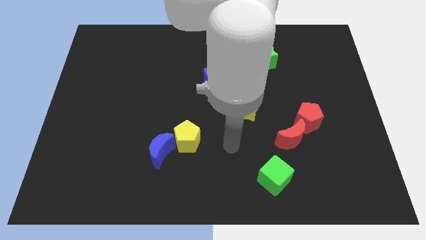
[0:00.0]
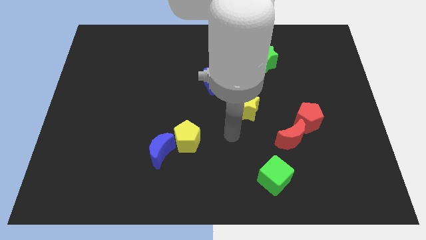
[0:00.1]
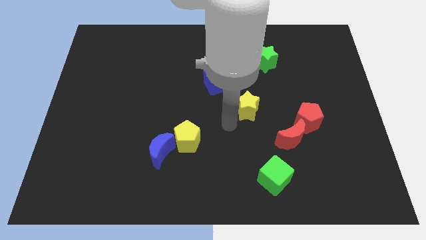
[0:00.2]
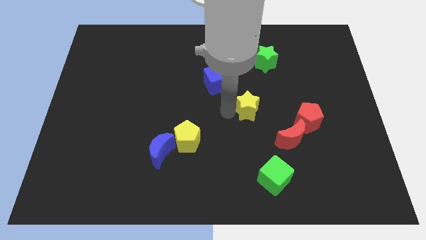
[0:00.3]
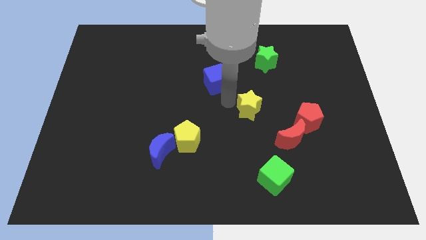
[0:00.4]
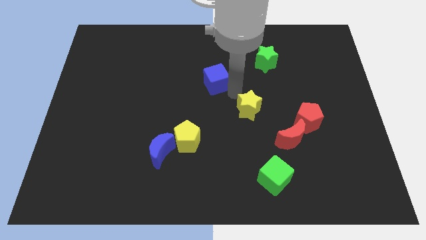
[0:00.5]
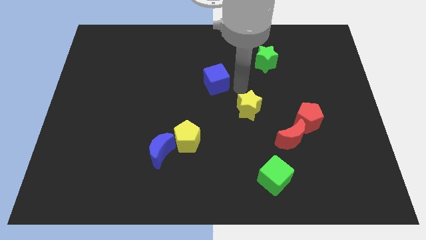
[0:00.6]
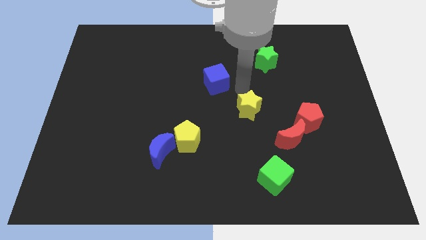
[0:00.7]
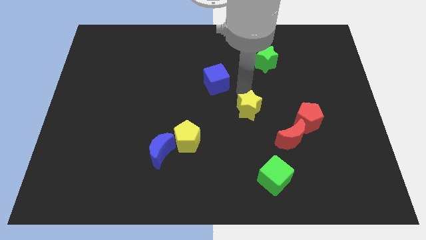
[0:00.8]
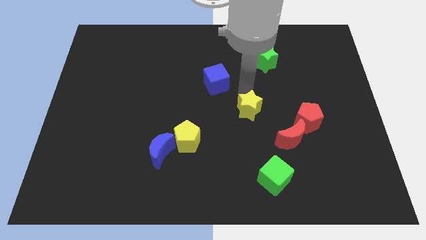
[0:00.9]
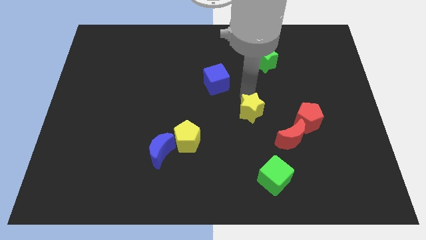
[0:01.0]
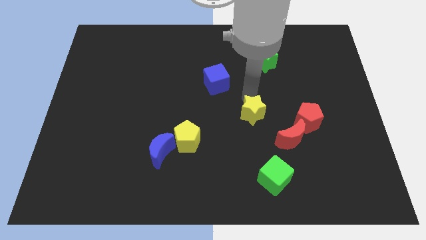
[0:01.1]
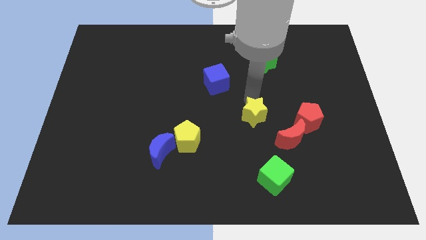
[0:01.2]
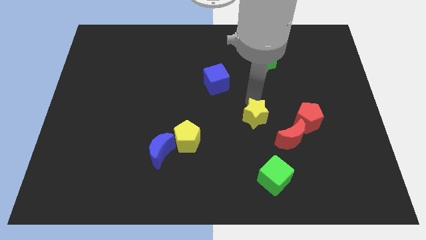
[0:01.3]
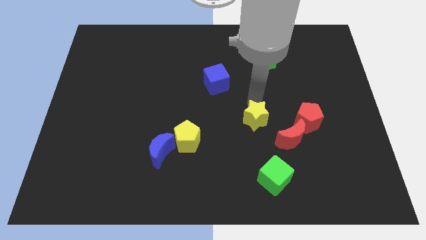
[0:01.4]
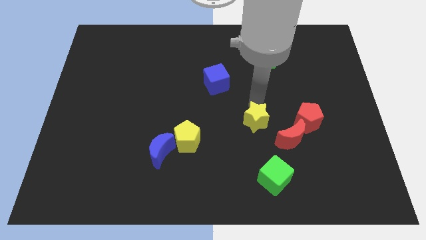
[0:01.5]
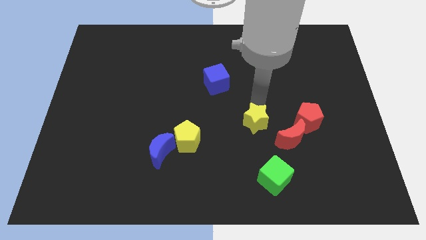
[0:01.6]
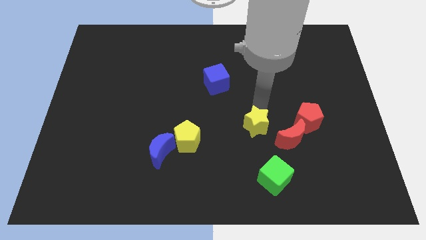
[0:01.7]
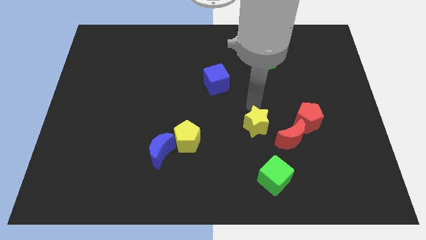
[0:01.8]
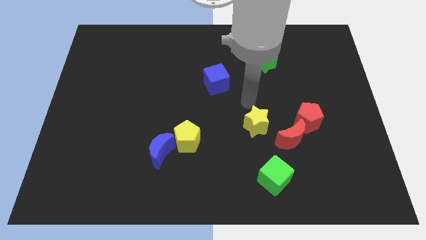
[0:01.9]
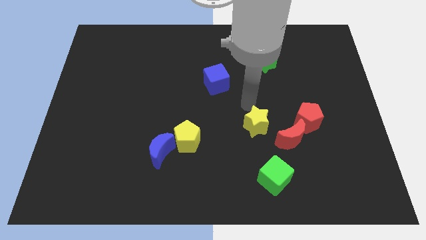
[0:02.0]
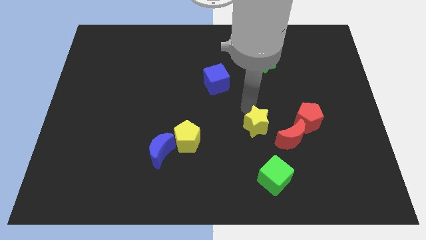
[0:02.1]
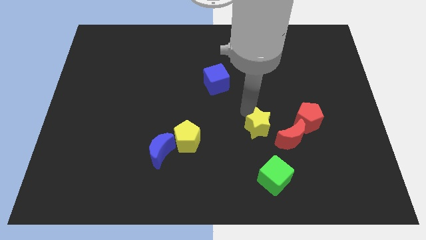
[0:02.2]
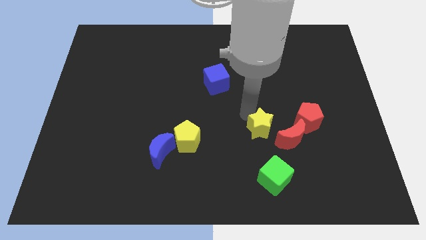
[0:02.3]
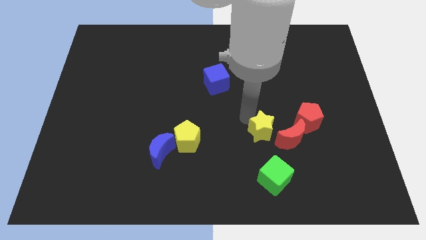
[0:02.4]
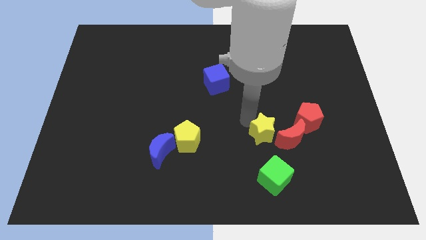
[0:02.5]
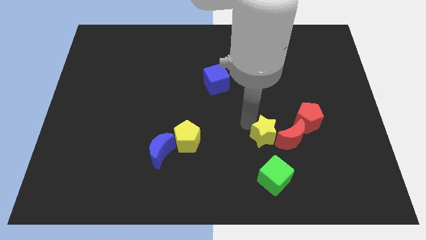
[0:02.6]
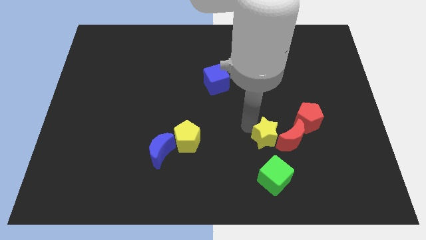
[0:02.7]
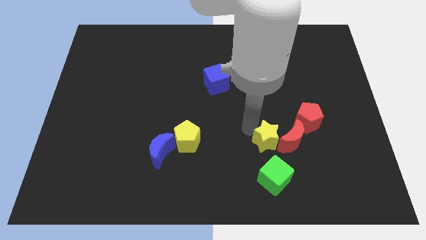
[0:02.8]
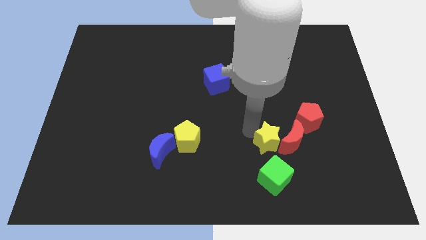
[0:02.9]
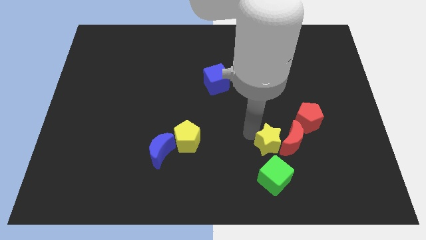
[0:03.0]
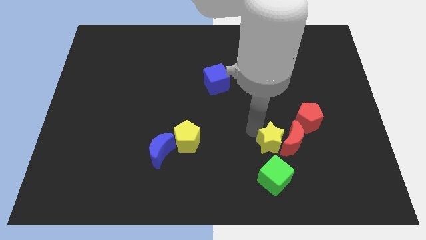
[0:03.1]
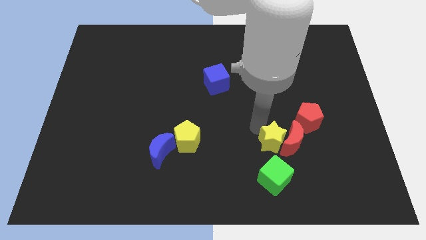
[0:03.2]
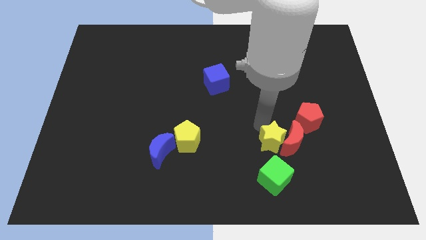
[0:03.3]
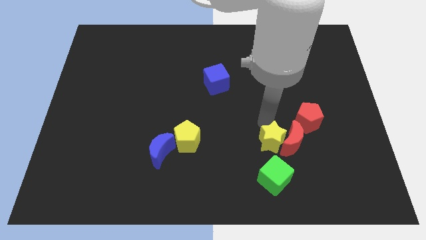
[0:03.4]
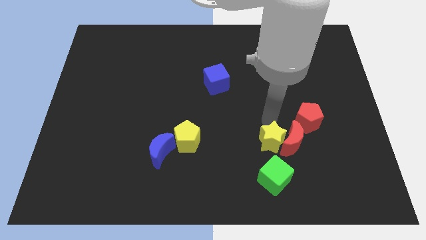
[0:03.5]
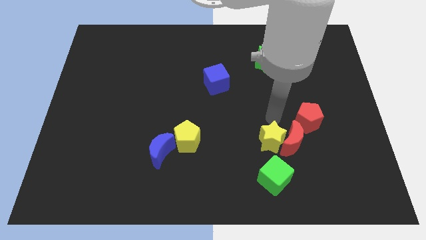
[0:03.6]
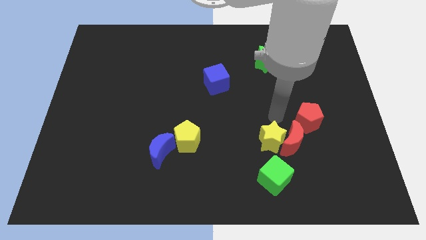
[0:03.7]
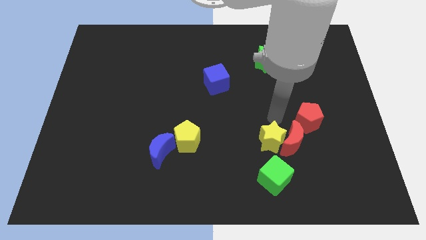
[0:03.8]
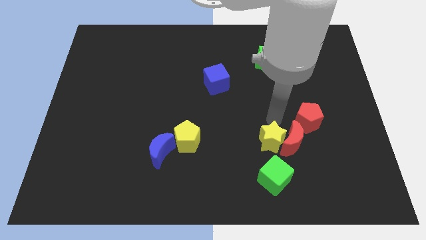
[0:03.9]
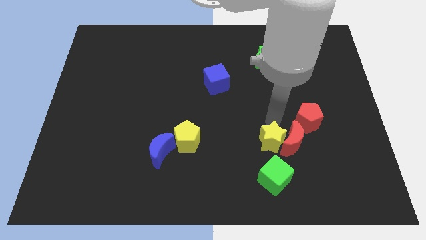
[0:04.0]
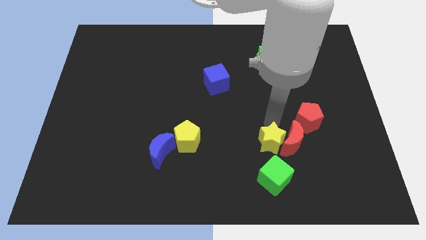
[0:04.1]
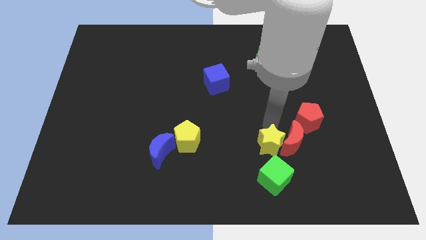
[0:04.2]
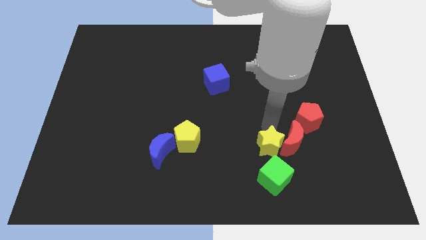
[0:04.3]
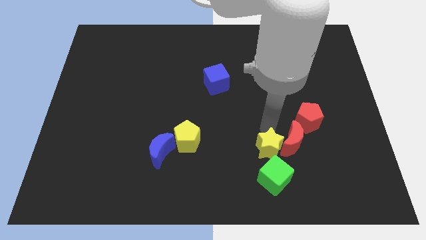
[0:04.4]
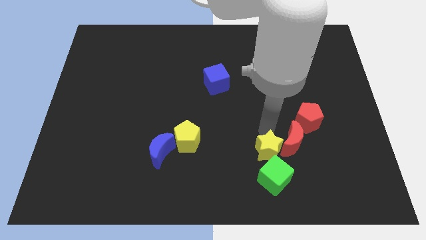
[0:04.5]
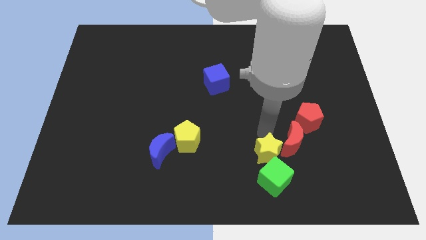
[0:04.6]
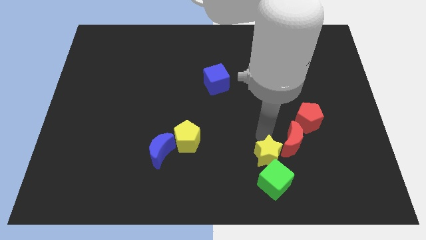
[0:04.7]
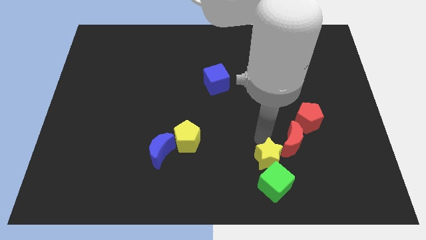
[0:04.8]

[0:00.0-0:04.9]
put the yellow star towards the green cube

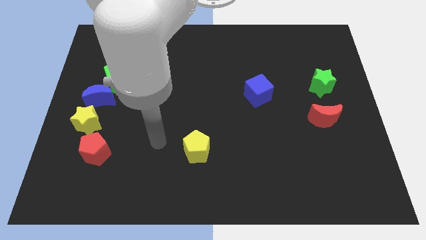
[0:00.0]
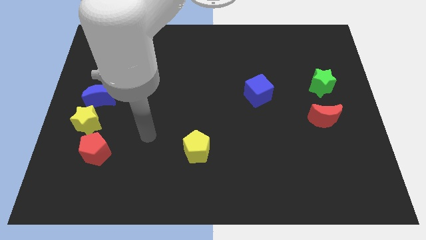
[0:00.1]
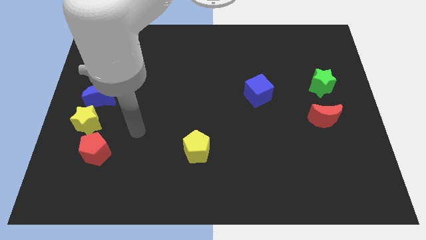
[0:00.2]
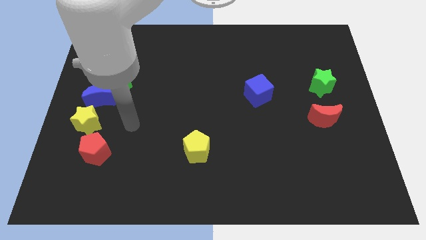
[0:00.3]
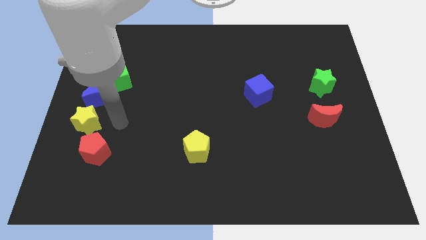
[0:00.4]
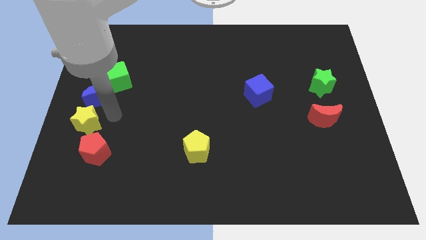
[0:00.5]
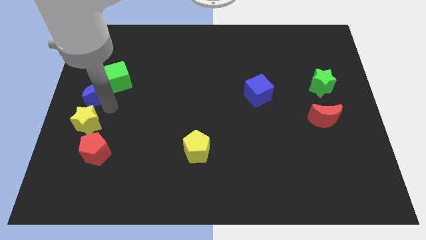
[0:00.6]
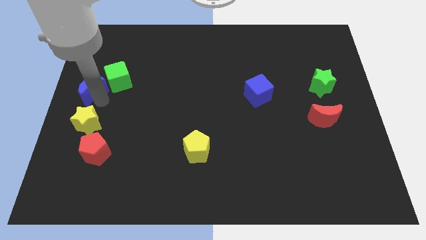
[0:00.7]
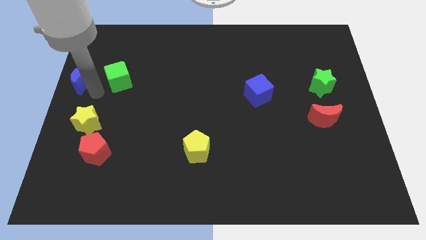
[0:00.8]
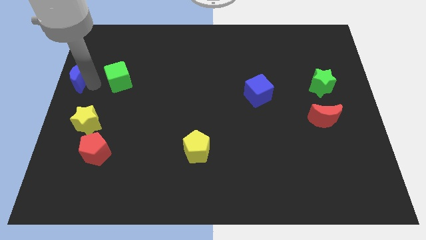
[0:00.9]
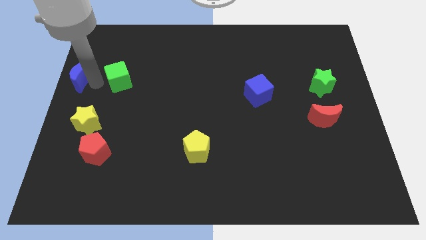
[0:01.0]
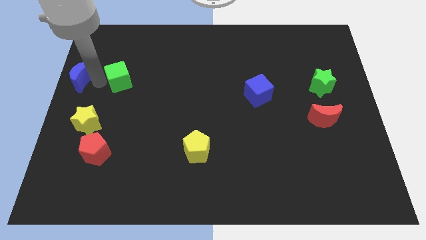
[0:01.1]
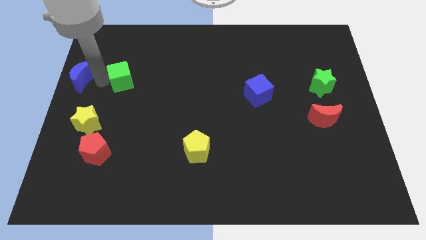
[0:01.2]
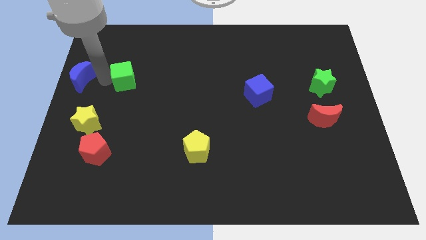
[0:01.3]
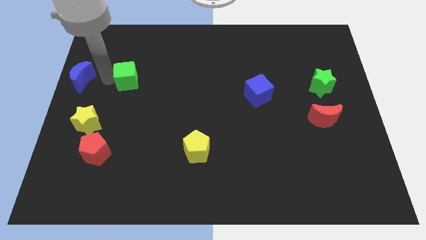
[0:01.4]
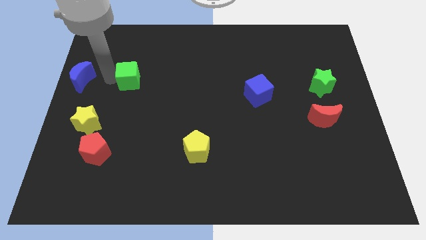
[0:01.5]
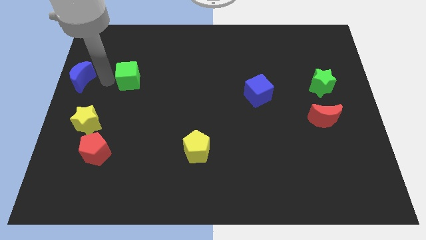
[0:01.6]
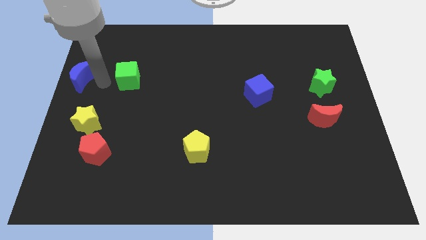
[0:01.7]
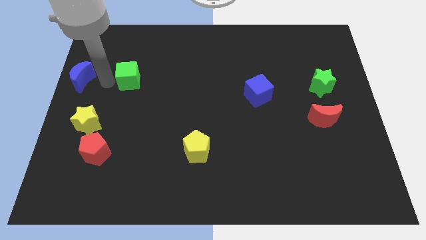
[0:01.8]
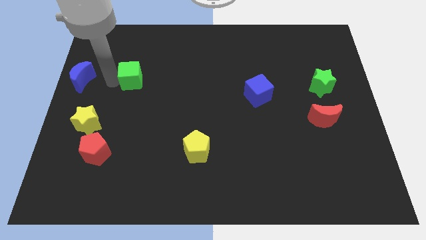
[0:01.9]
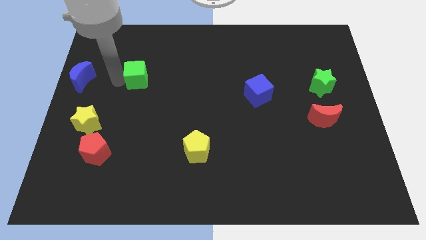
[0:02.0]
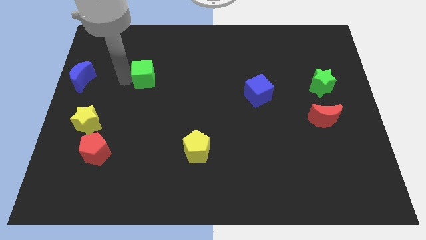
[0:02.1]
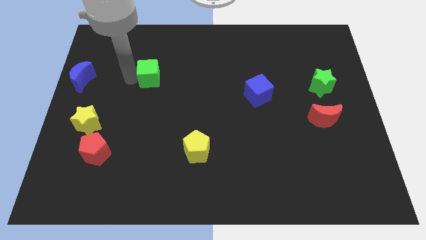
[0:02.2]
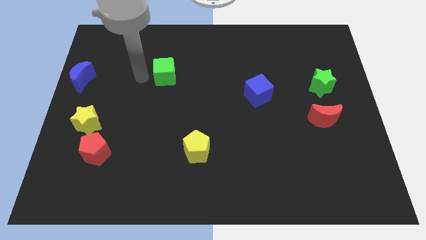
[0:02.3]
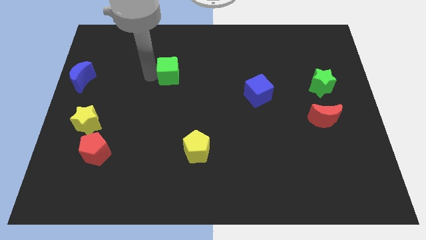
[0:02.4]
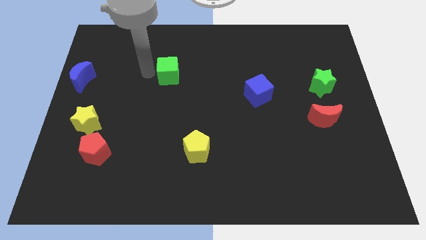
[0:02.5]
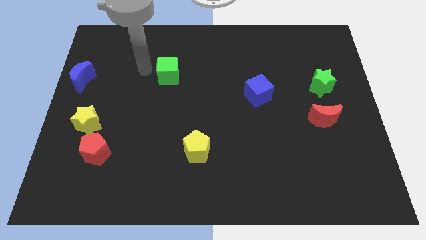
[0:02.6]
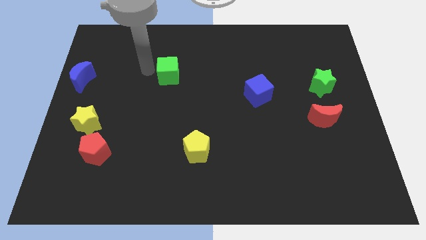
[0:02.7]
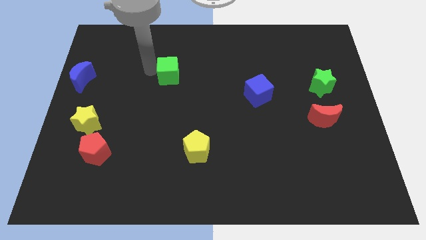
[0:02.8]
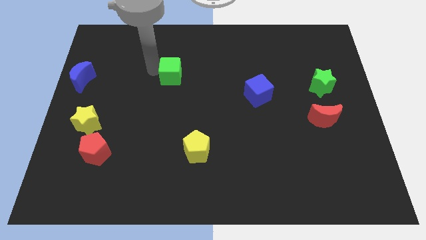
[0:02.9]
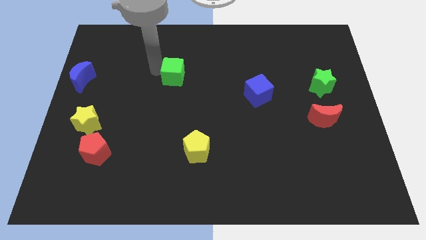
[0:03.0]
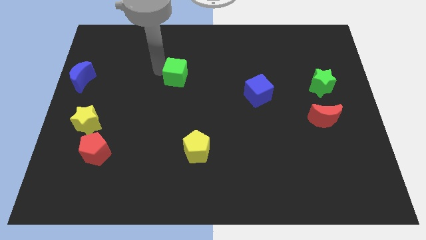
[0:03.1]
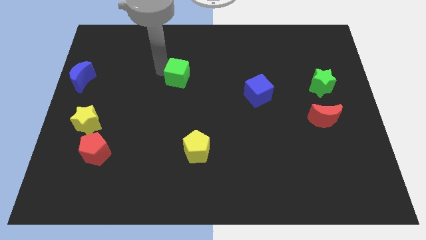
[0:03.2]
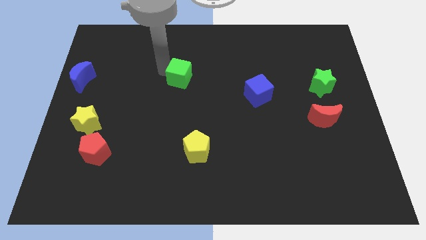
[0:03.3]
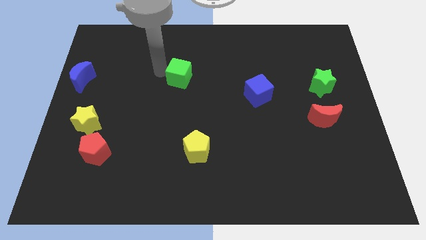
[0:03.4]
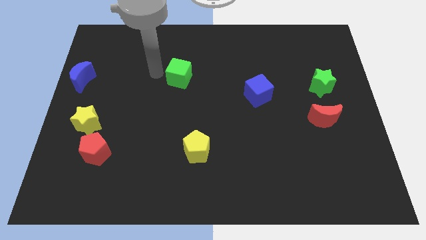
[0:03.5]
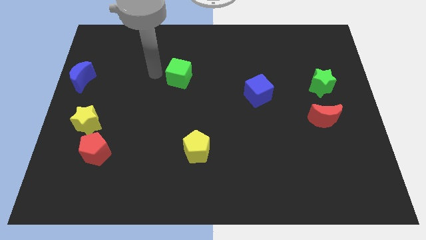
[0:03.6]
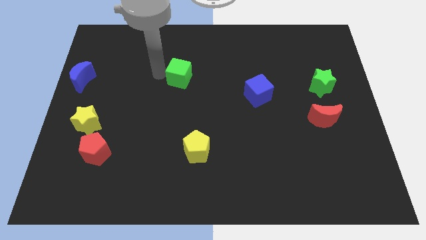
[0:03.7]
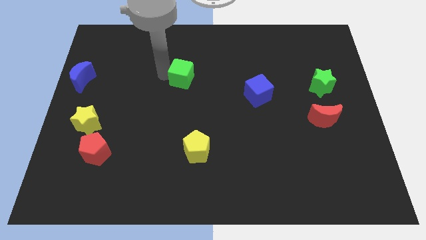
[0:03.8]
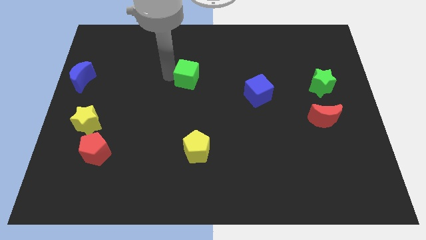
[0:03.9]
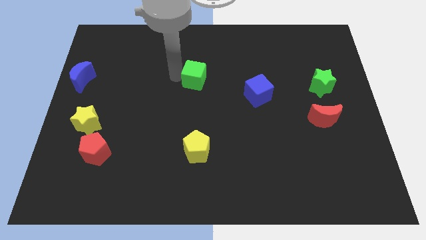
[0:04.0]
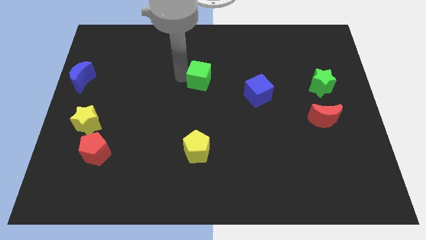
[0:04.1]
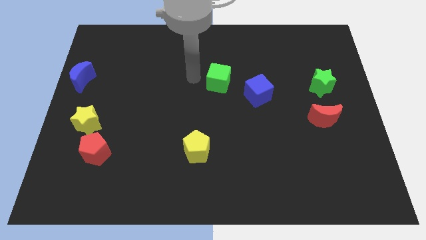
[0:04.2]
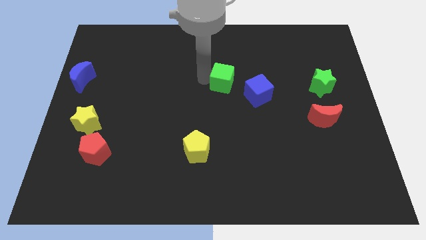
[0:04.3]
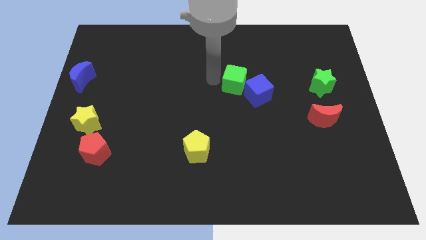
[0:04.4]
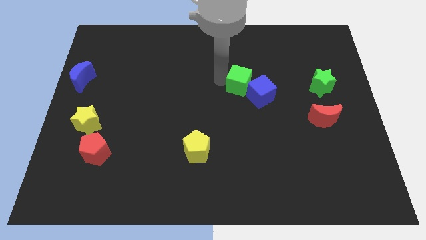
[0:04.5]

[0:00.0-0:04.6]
put the green cube to the blue cube
